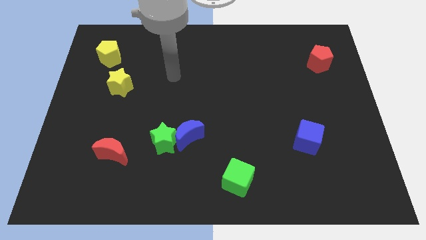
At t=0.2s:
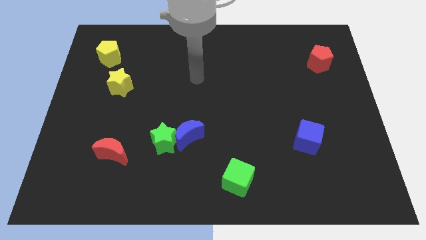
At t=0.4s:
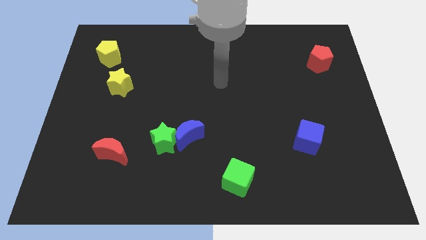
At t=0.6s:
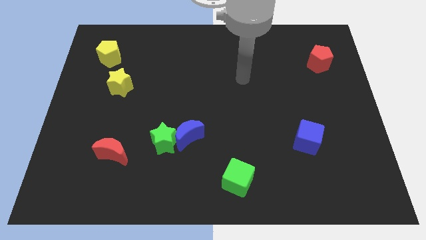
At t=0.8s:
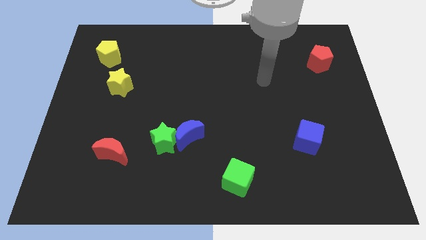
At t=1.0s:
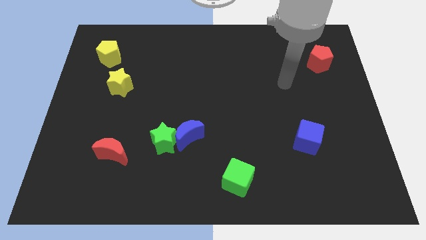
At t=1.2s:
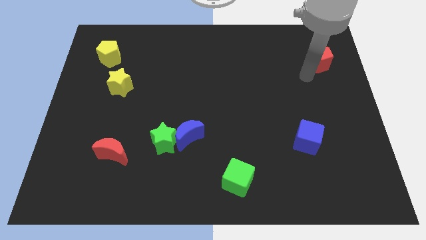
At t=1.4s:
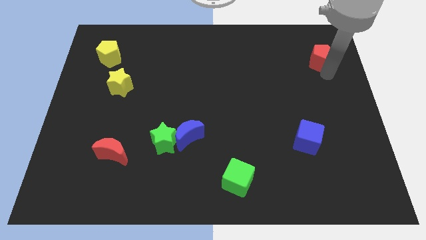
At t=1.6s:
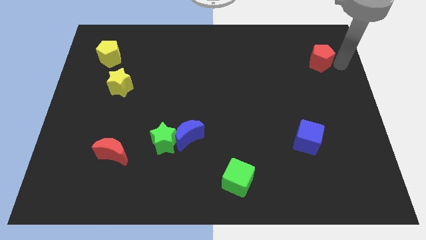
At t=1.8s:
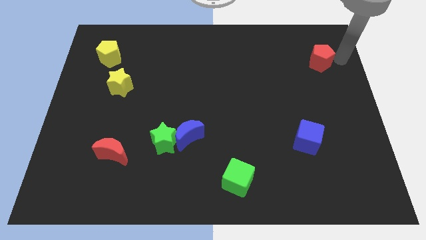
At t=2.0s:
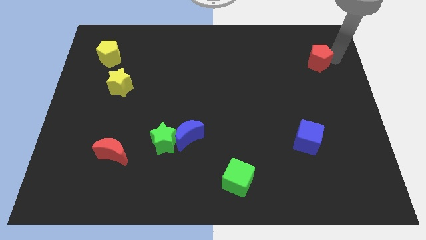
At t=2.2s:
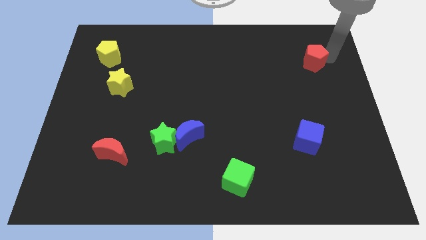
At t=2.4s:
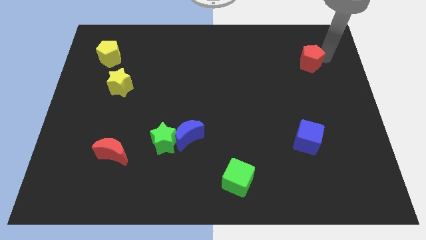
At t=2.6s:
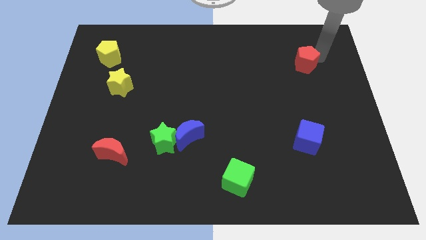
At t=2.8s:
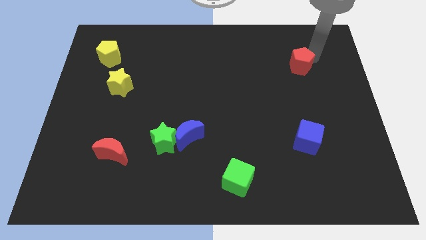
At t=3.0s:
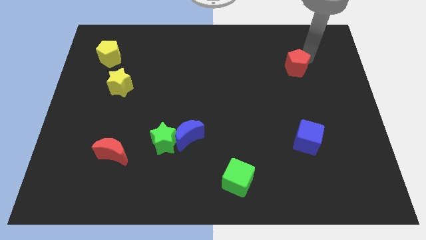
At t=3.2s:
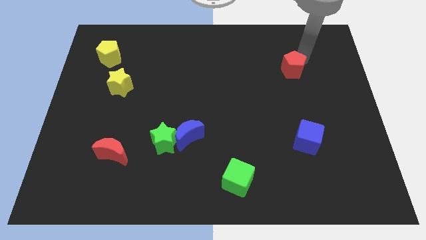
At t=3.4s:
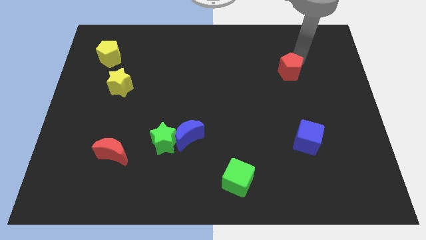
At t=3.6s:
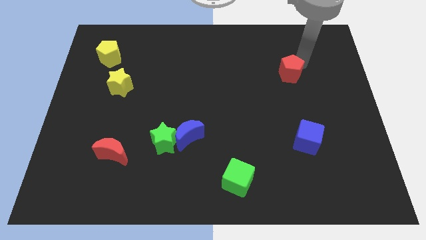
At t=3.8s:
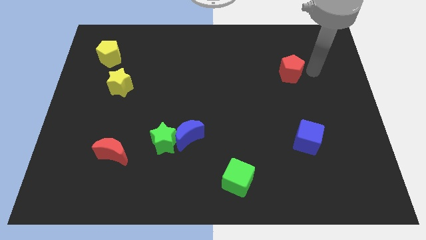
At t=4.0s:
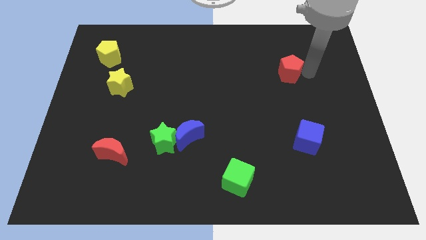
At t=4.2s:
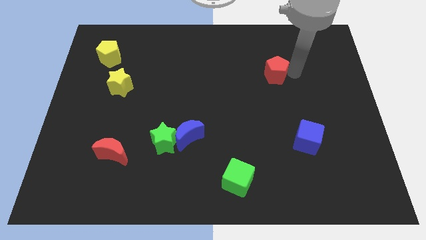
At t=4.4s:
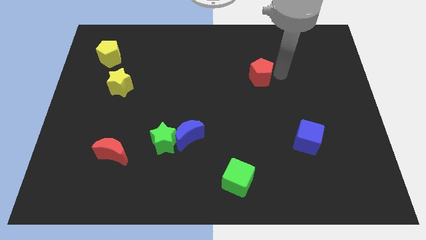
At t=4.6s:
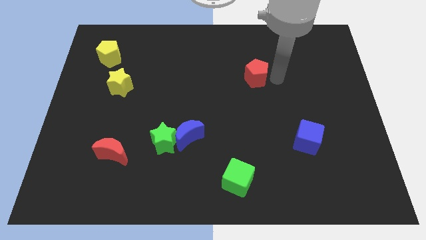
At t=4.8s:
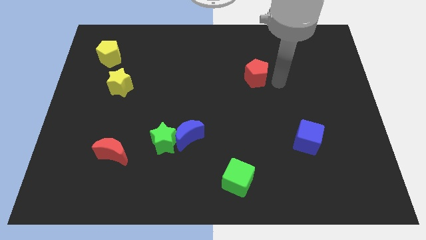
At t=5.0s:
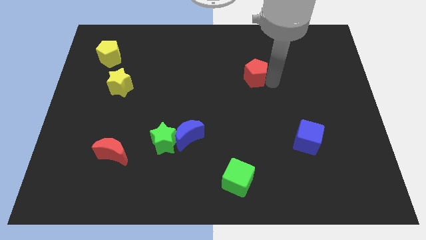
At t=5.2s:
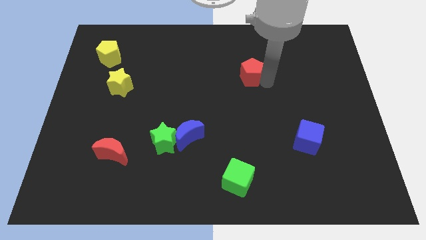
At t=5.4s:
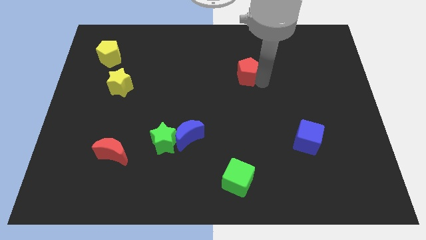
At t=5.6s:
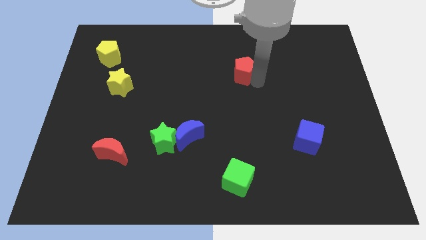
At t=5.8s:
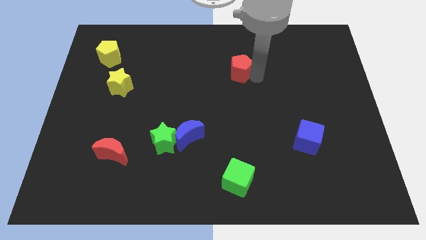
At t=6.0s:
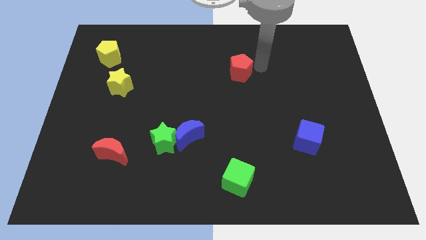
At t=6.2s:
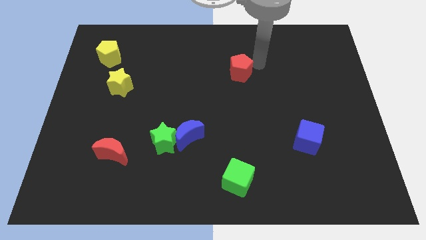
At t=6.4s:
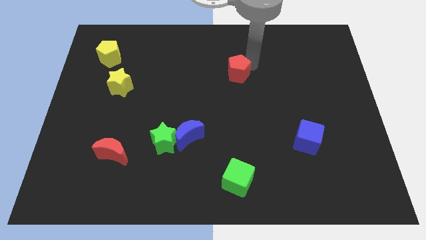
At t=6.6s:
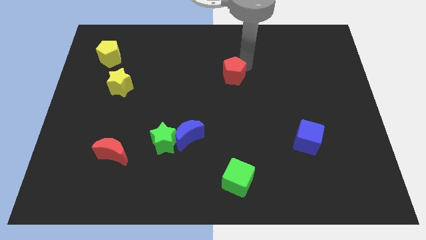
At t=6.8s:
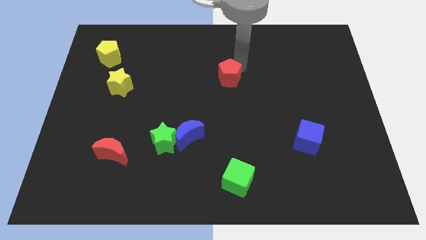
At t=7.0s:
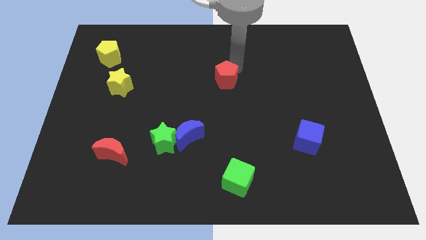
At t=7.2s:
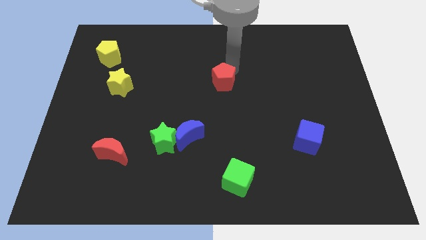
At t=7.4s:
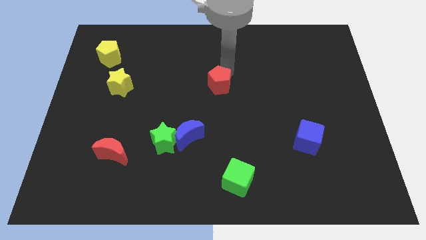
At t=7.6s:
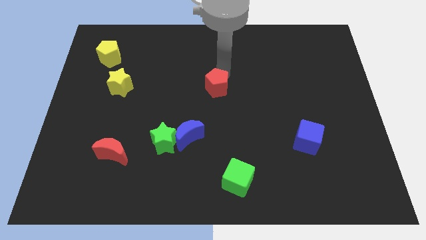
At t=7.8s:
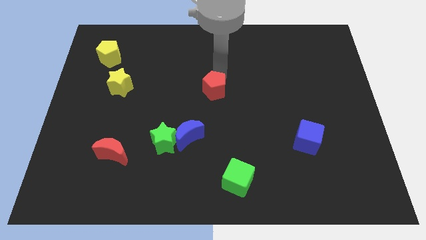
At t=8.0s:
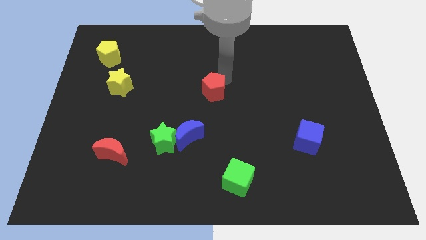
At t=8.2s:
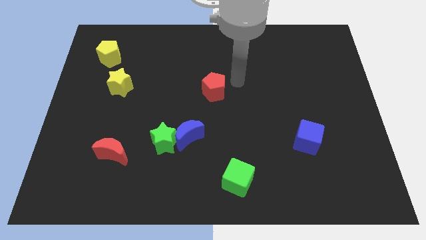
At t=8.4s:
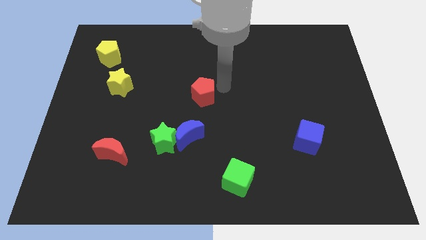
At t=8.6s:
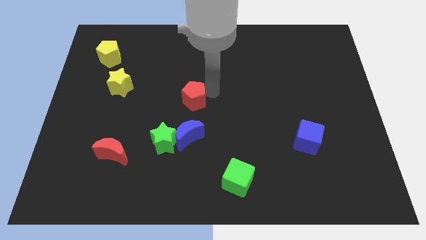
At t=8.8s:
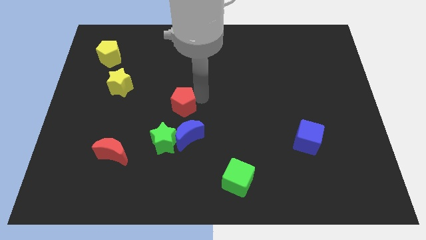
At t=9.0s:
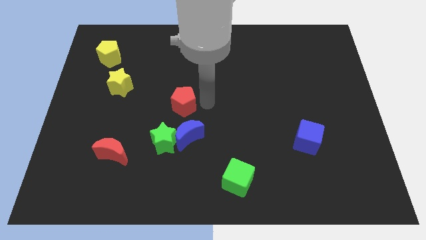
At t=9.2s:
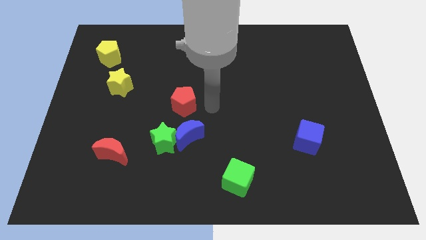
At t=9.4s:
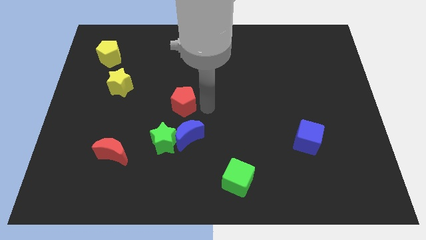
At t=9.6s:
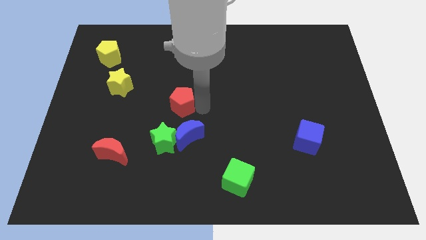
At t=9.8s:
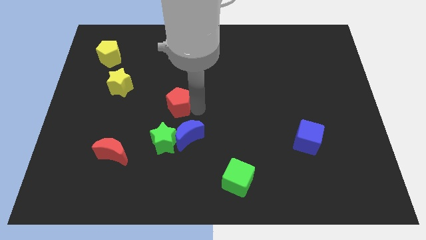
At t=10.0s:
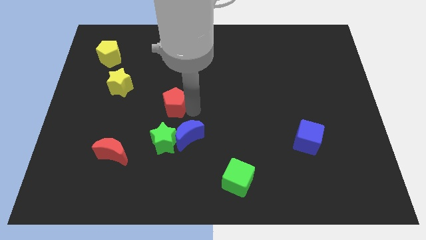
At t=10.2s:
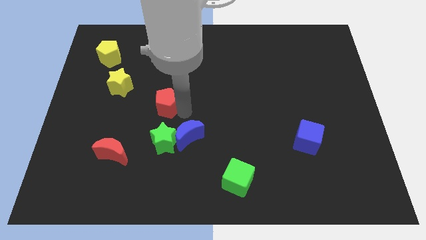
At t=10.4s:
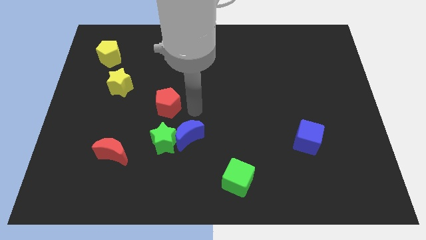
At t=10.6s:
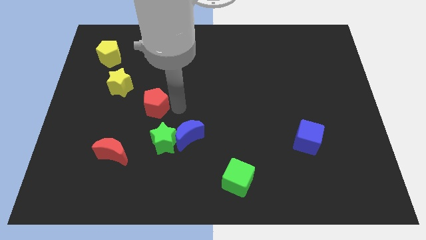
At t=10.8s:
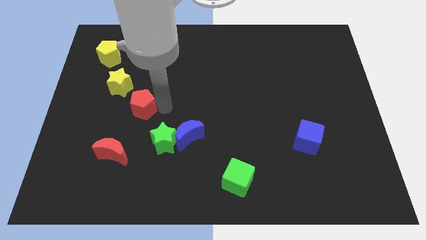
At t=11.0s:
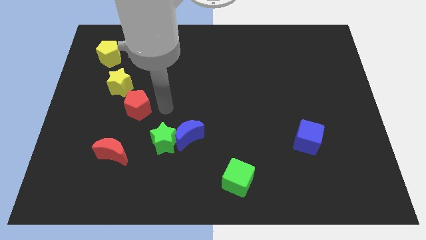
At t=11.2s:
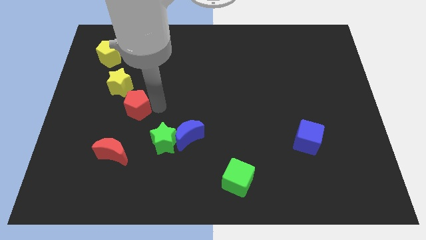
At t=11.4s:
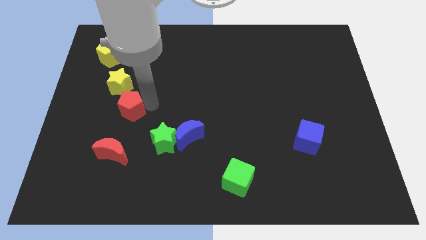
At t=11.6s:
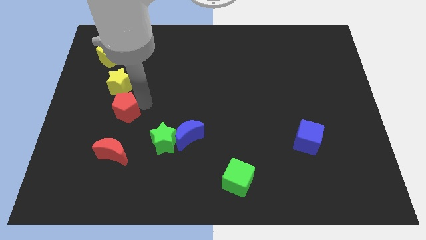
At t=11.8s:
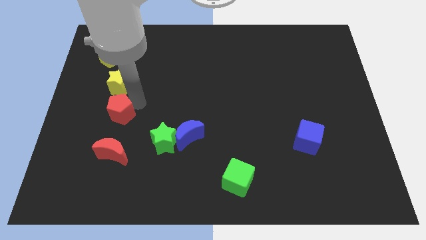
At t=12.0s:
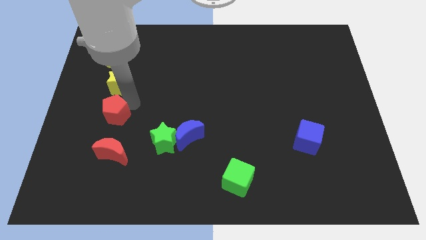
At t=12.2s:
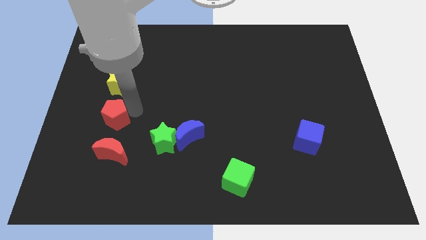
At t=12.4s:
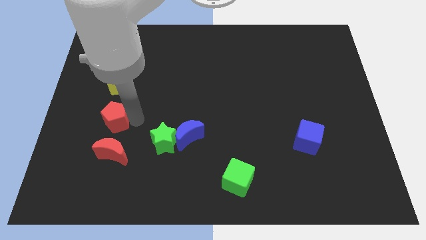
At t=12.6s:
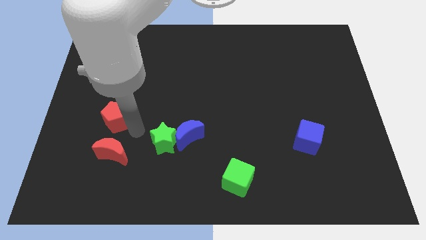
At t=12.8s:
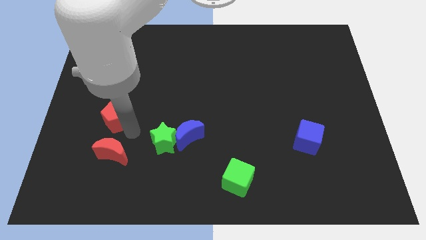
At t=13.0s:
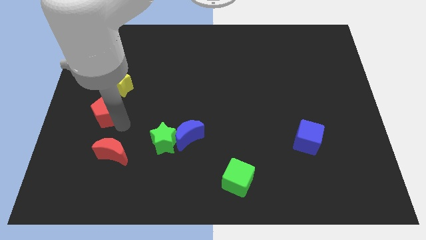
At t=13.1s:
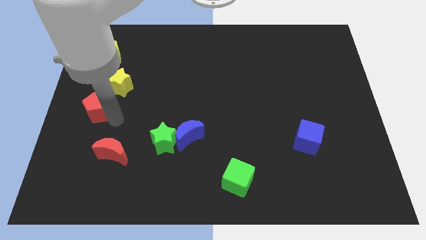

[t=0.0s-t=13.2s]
slide the red pentagon to the left side of the board
